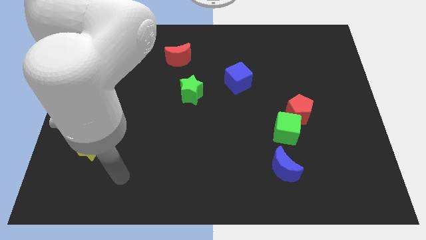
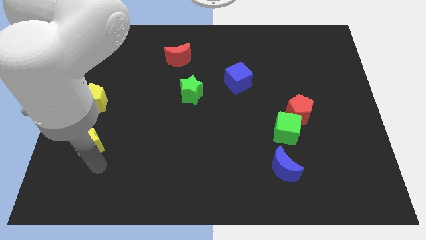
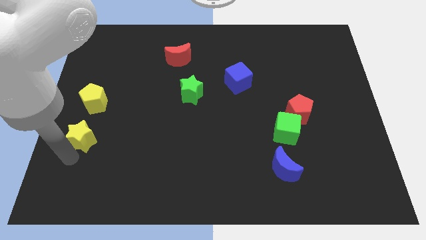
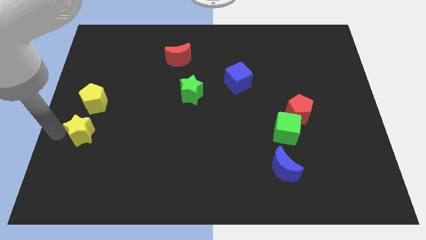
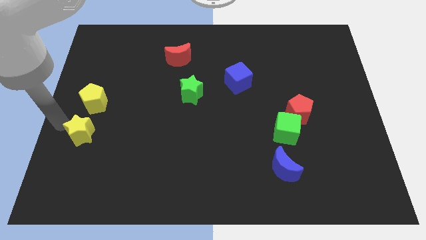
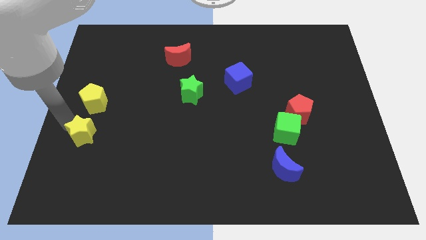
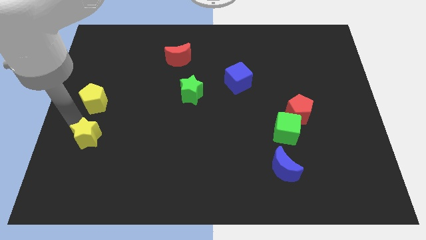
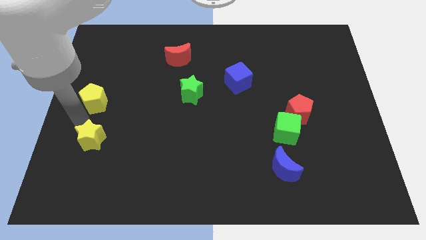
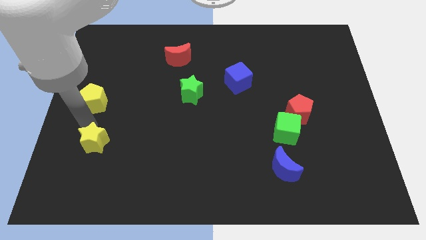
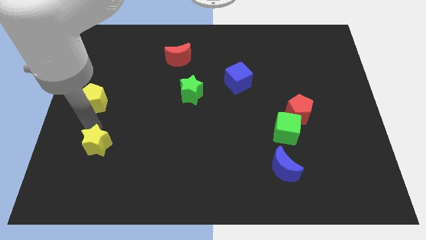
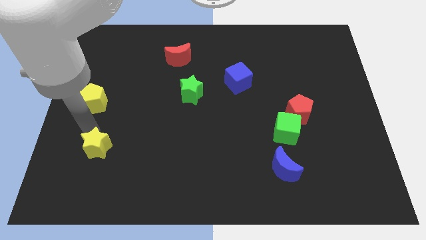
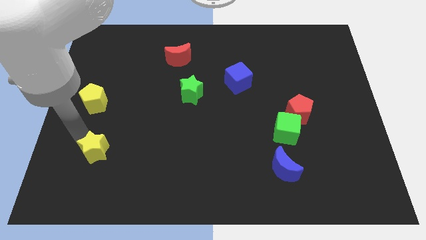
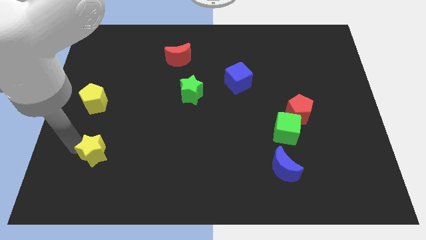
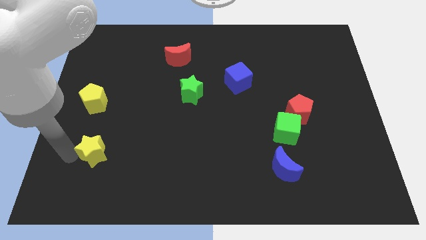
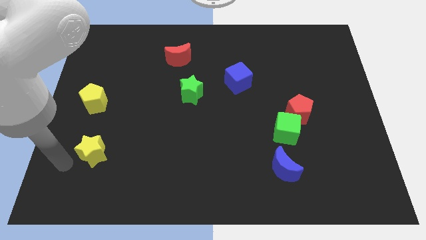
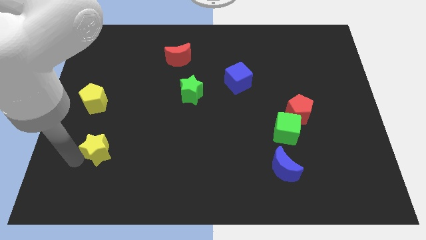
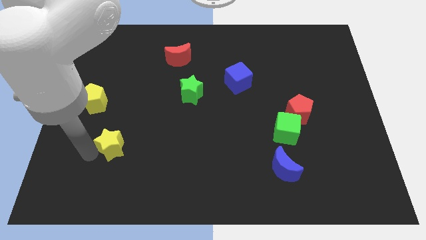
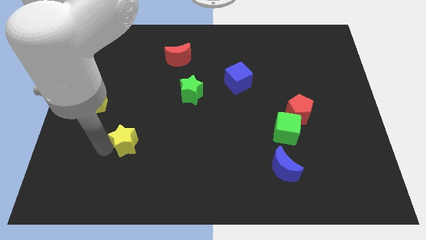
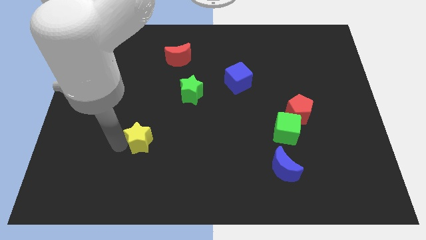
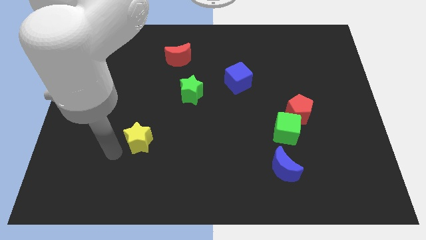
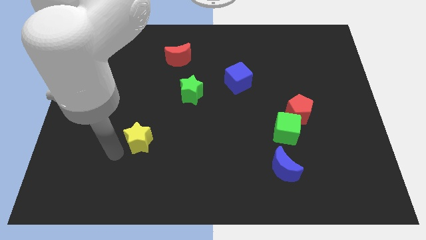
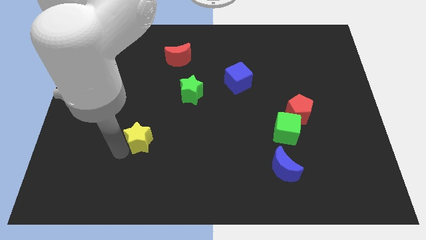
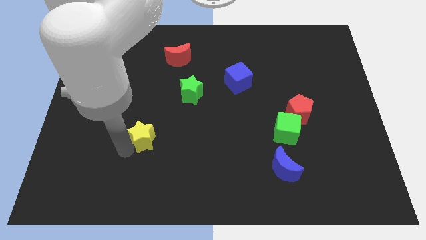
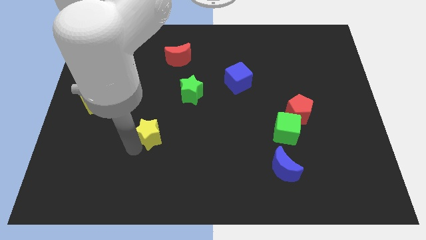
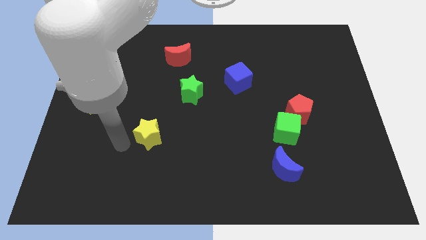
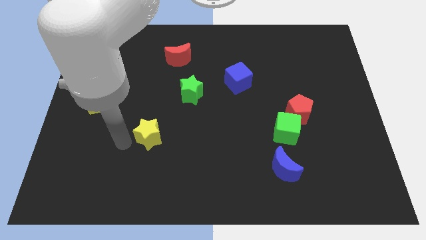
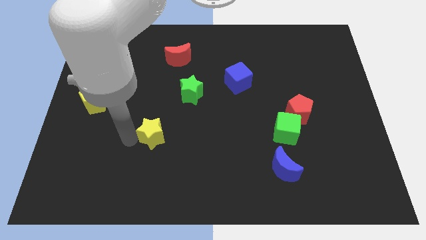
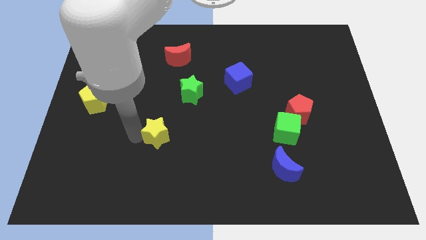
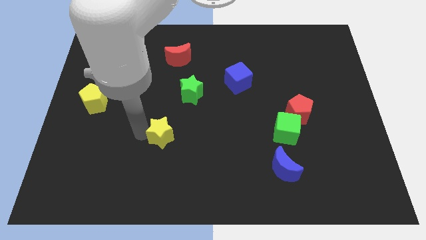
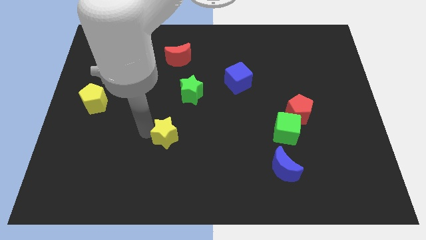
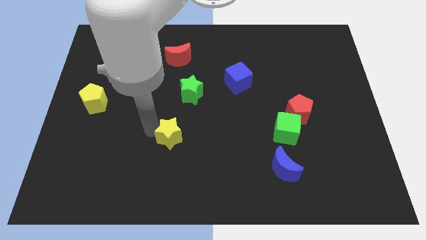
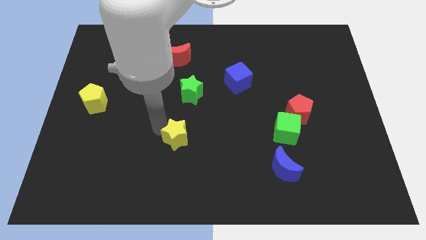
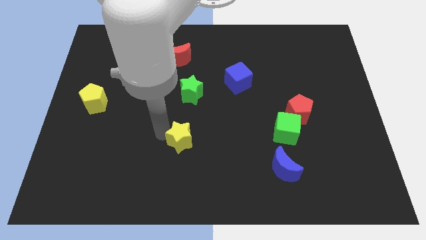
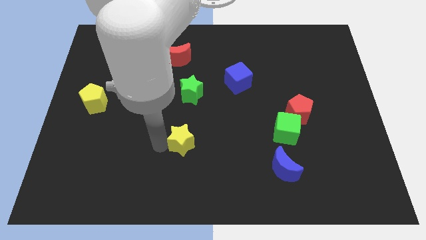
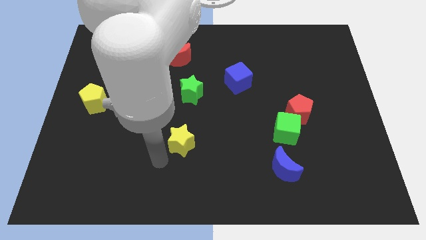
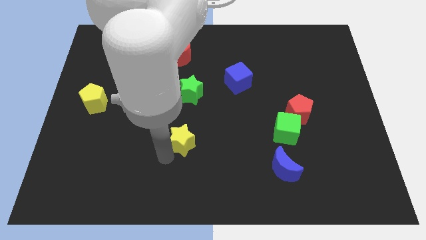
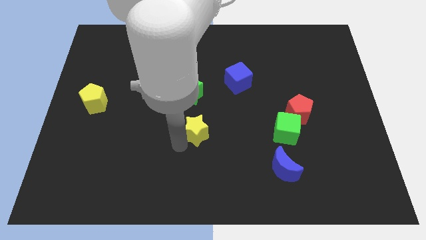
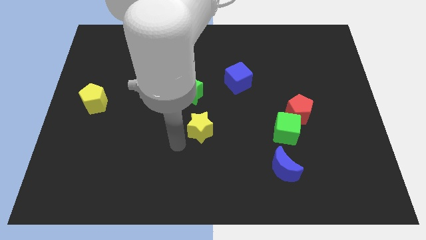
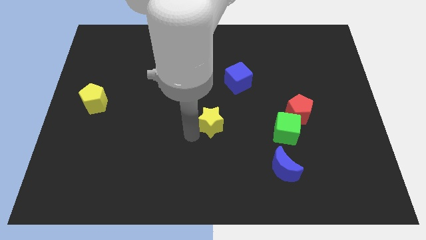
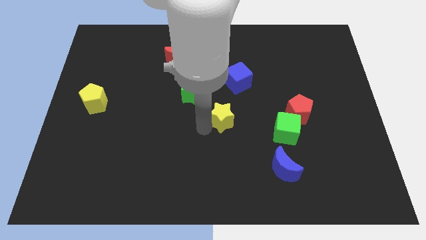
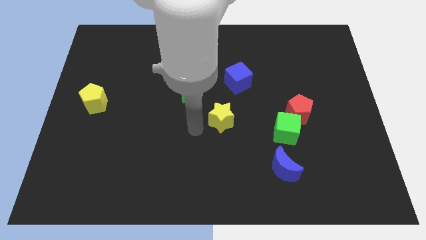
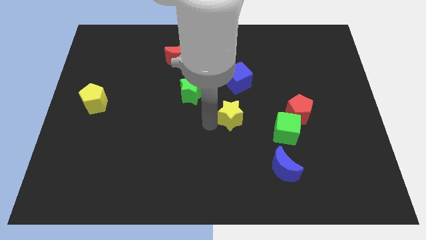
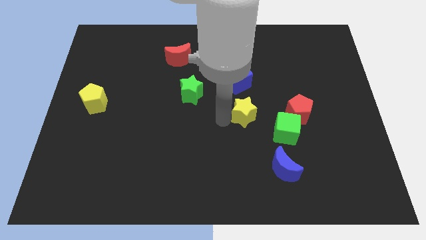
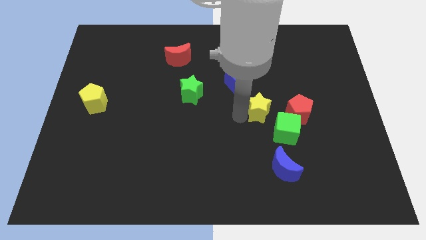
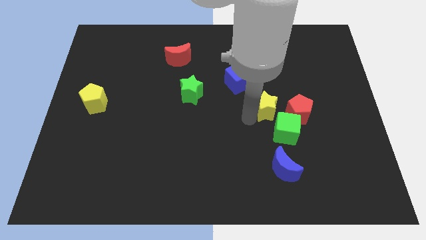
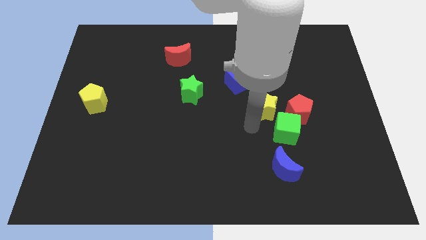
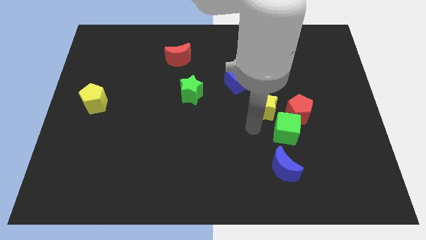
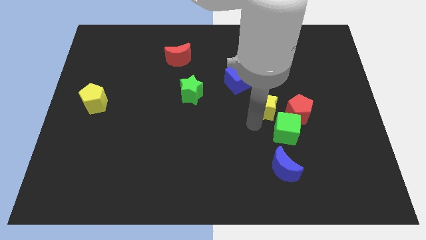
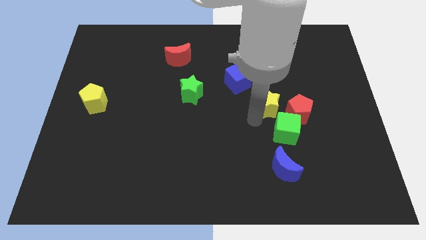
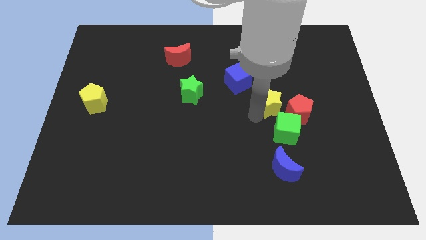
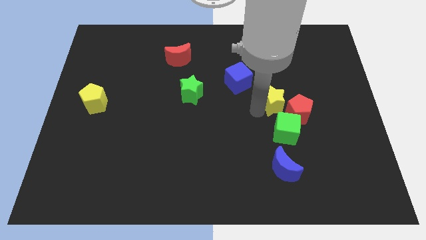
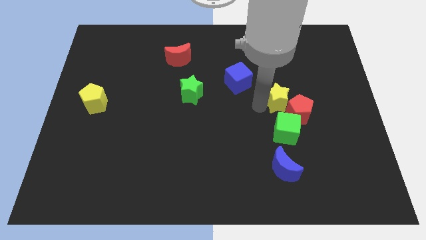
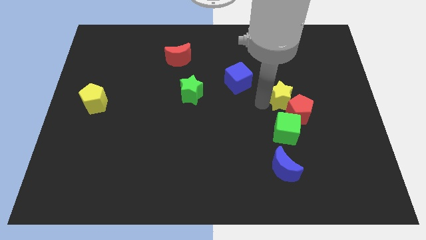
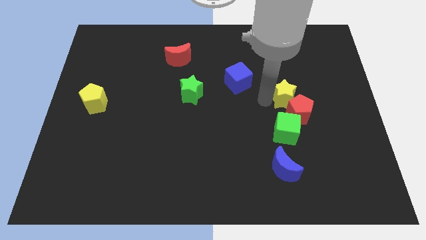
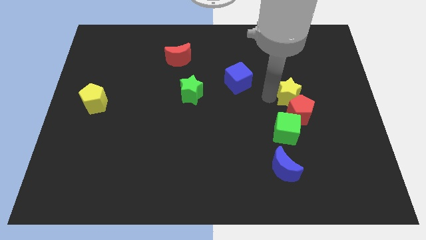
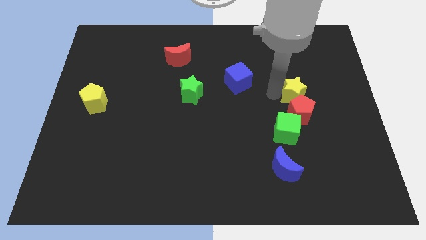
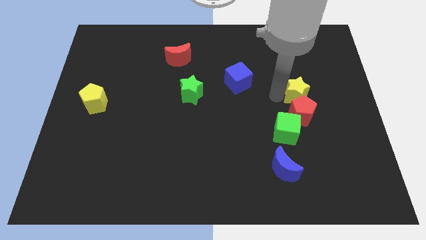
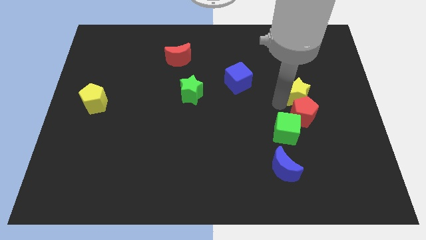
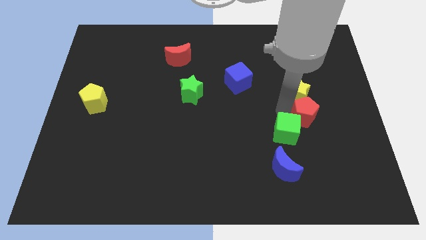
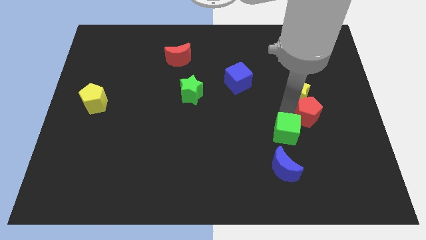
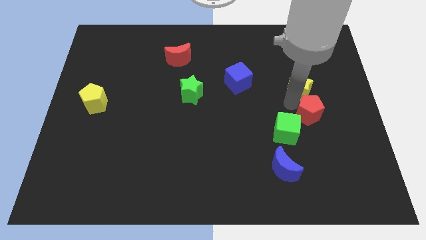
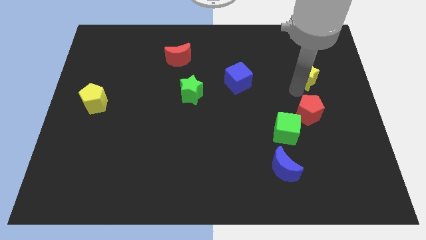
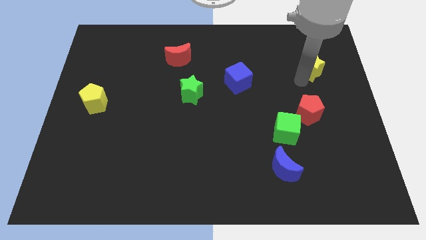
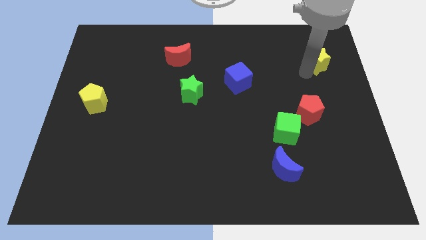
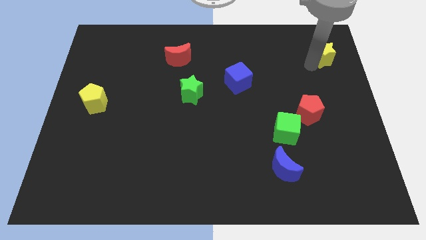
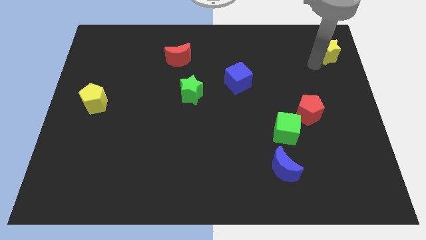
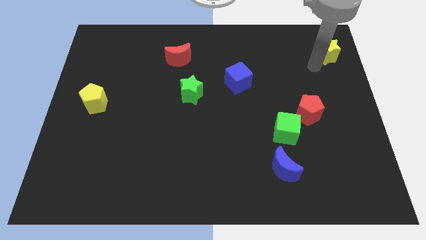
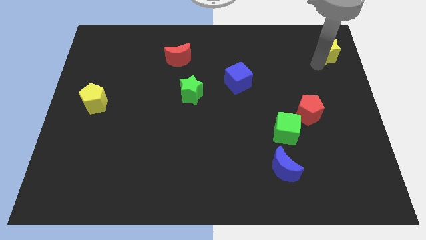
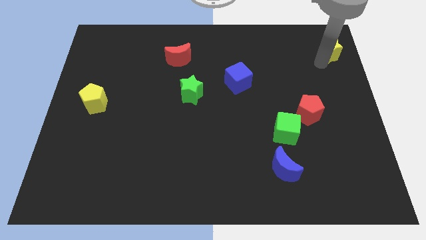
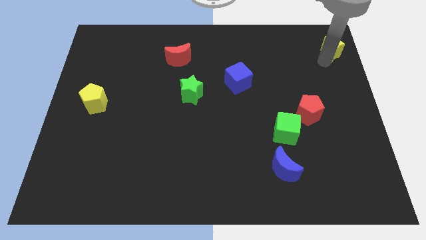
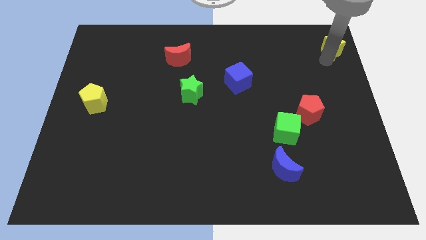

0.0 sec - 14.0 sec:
move the yellow star to the top right of the board

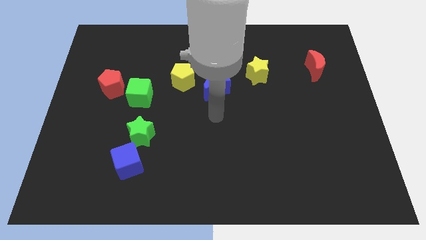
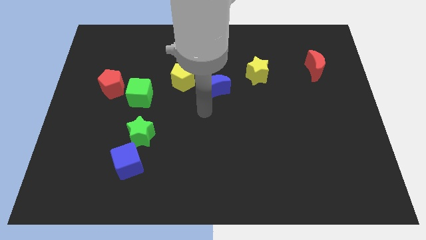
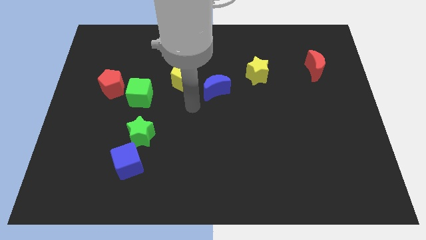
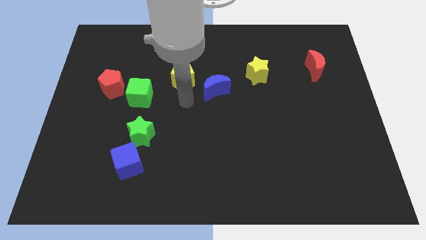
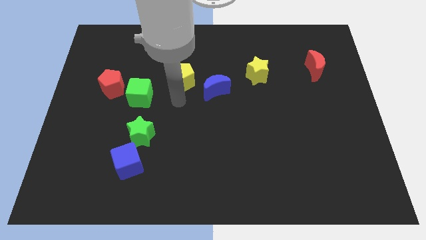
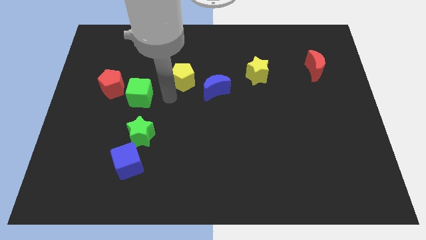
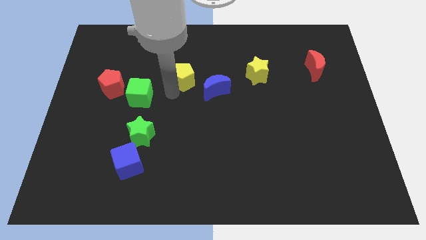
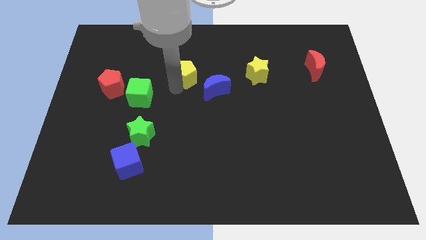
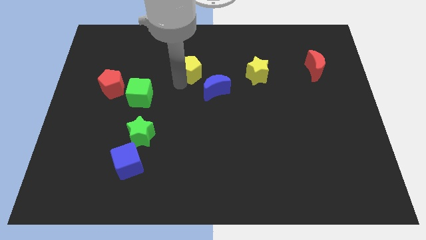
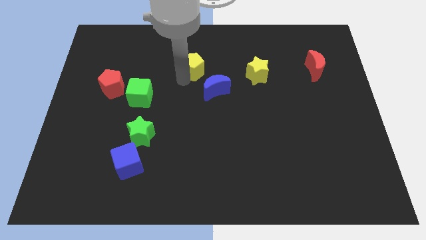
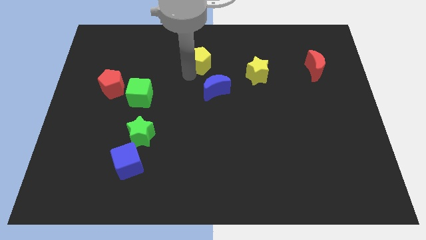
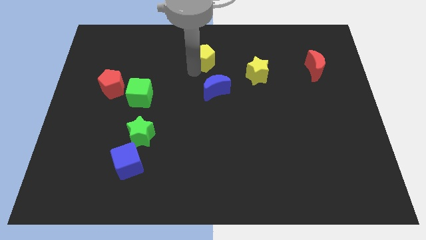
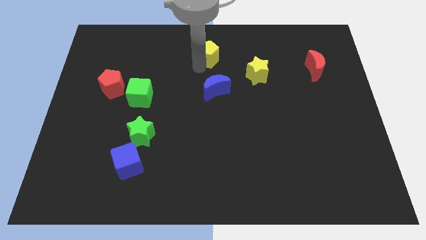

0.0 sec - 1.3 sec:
put the yellow pentagon to the top side
